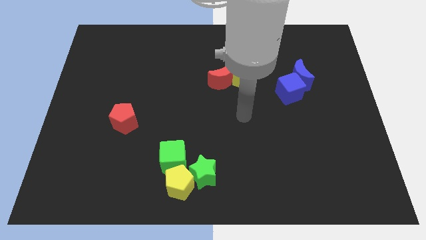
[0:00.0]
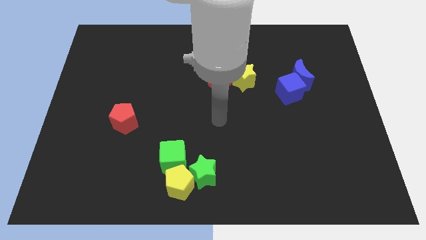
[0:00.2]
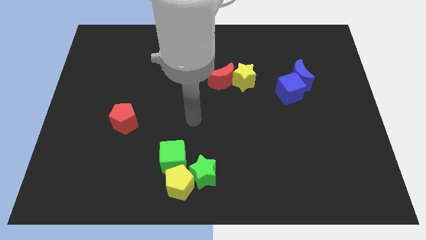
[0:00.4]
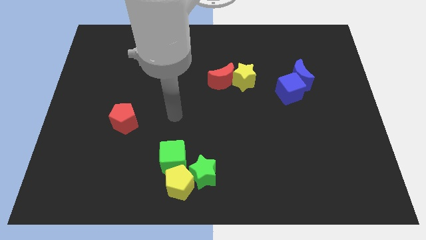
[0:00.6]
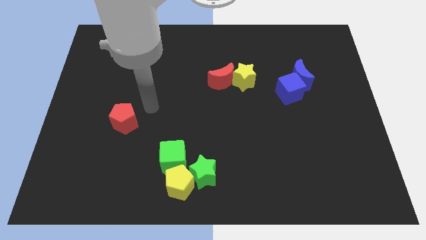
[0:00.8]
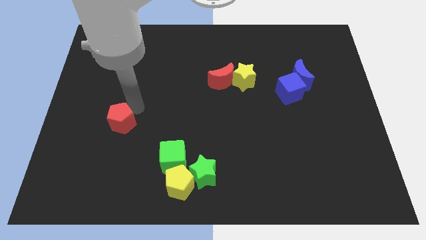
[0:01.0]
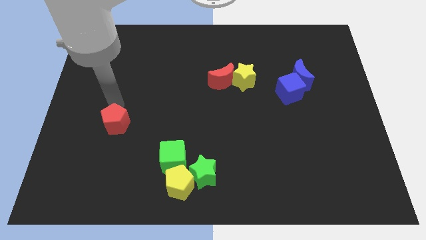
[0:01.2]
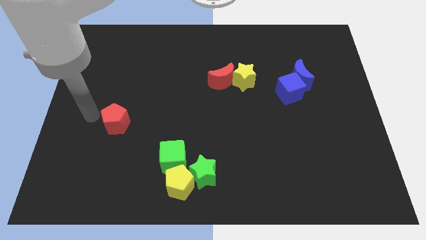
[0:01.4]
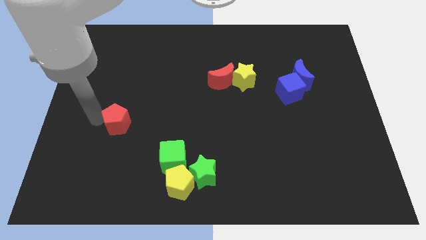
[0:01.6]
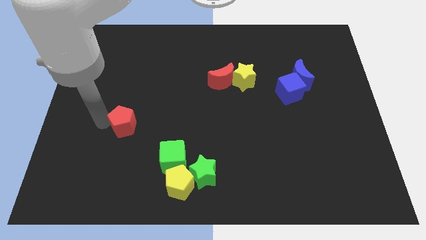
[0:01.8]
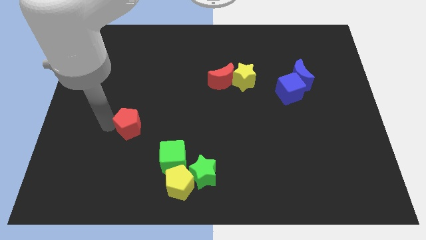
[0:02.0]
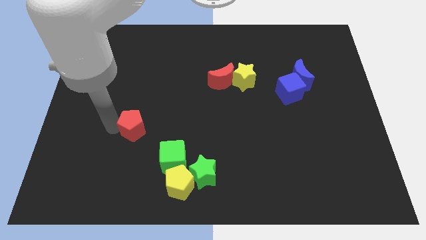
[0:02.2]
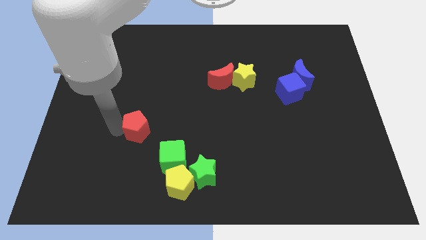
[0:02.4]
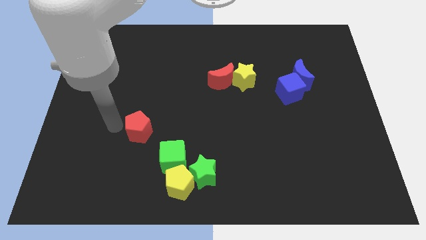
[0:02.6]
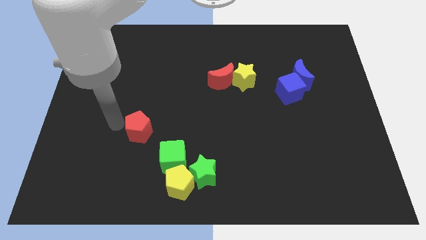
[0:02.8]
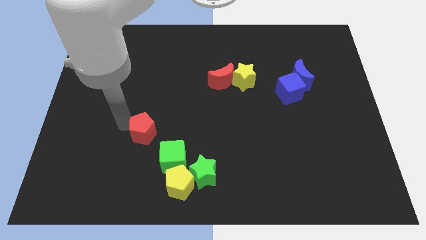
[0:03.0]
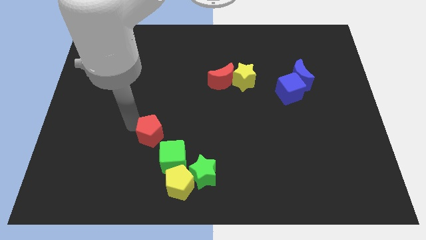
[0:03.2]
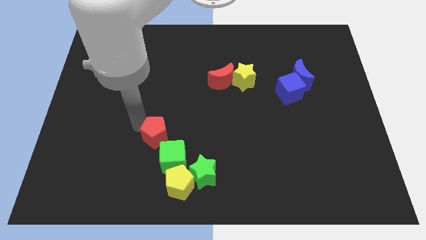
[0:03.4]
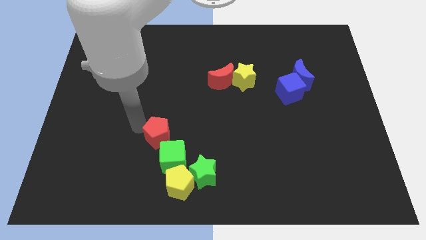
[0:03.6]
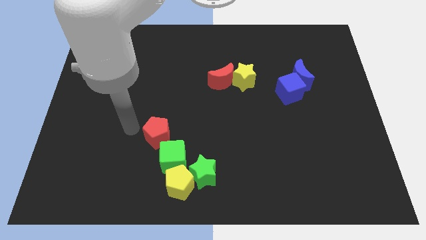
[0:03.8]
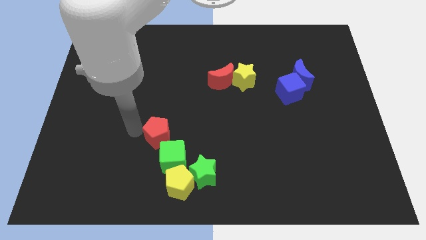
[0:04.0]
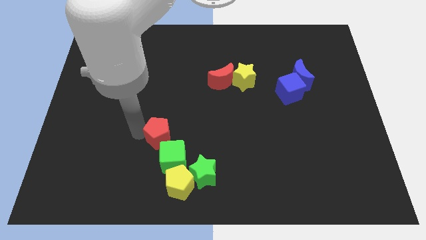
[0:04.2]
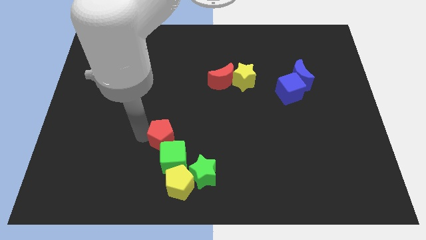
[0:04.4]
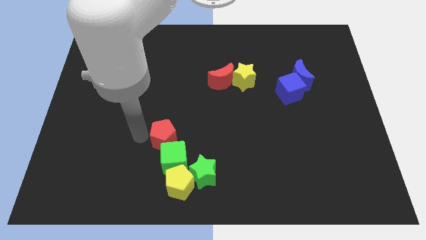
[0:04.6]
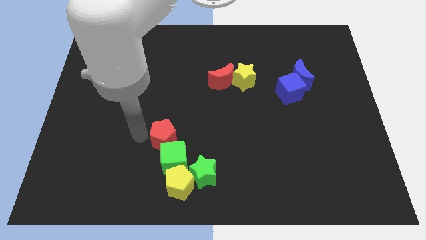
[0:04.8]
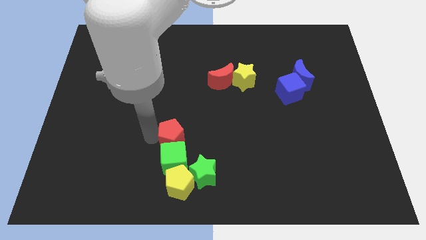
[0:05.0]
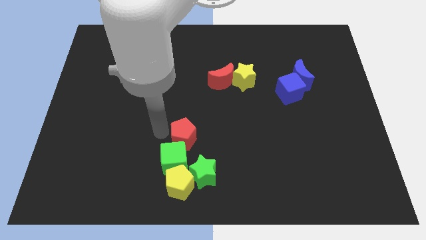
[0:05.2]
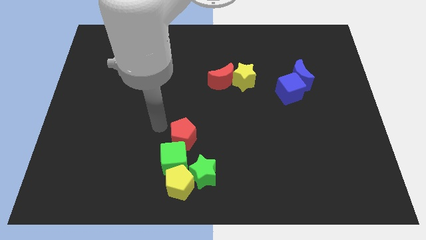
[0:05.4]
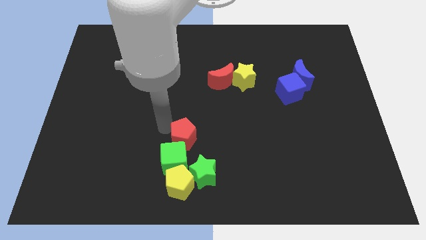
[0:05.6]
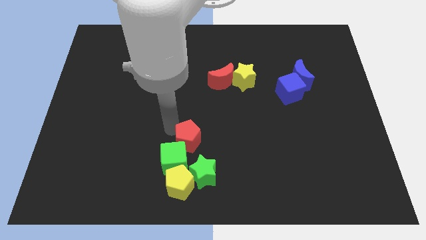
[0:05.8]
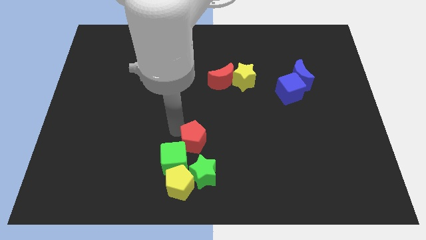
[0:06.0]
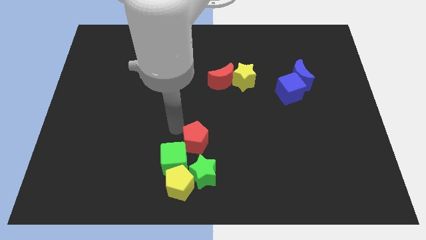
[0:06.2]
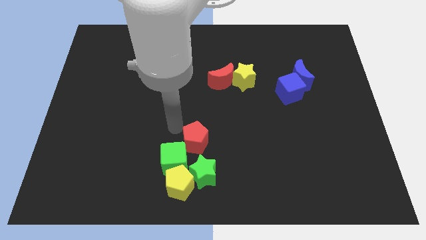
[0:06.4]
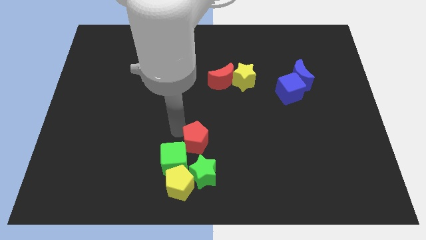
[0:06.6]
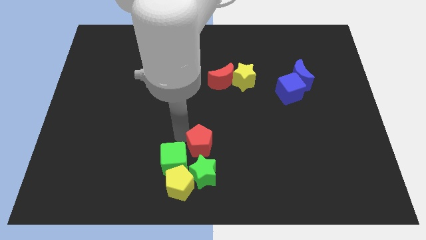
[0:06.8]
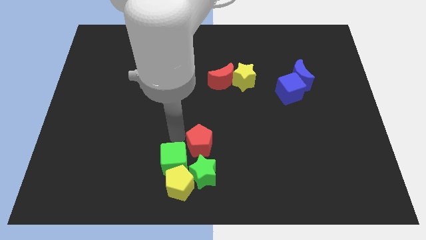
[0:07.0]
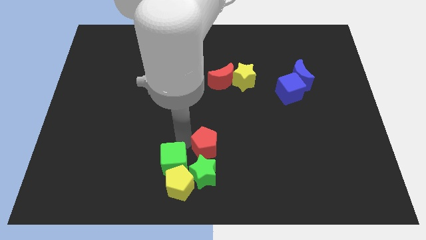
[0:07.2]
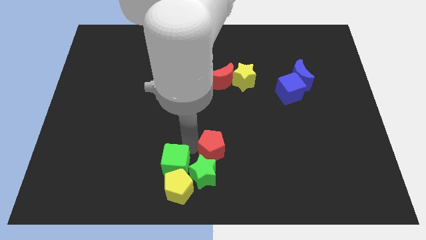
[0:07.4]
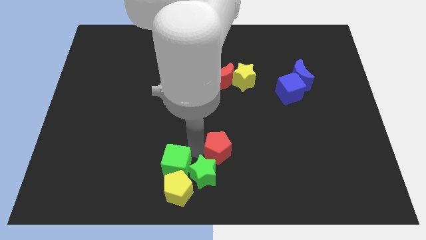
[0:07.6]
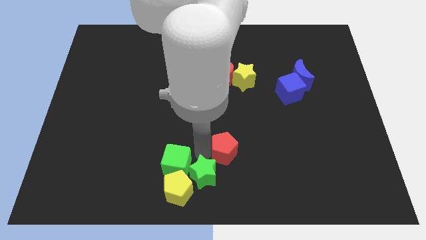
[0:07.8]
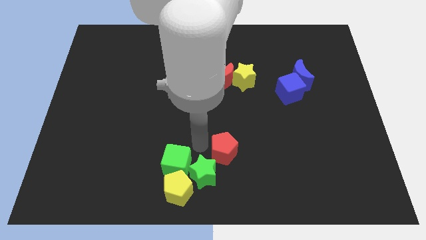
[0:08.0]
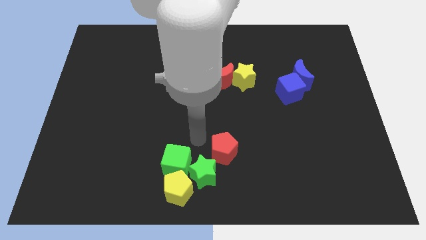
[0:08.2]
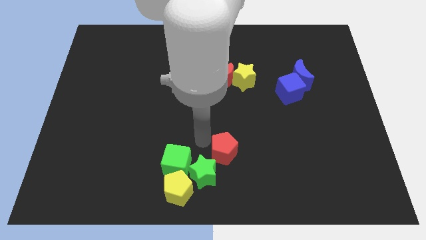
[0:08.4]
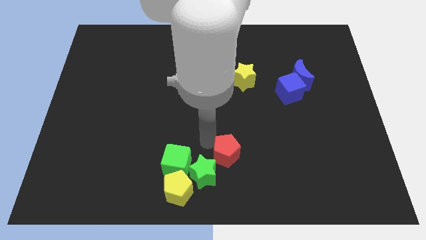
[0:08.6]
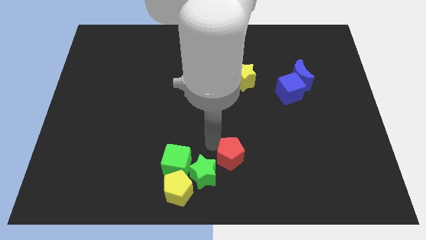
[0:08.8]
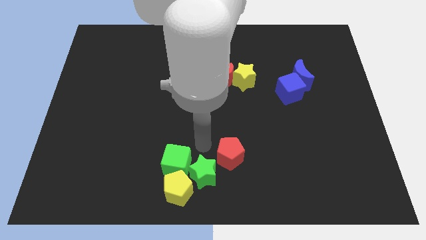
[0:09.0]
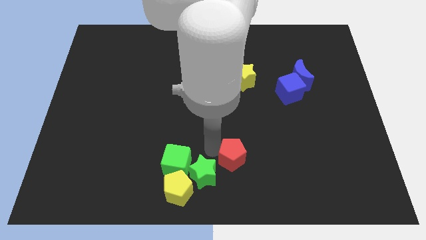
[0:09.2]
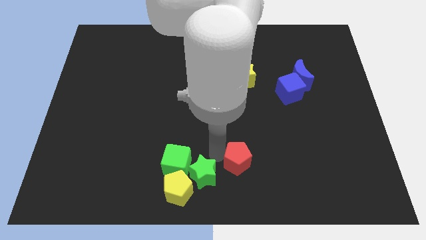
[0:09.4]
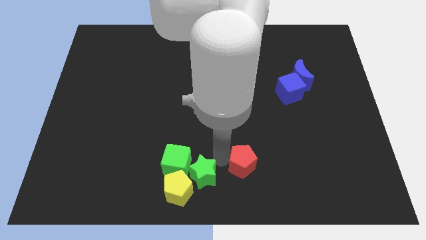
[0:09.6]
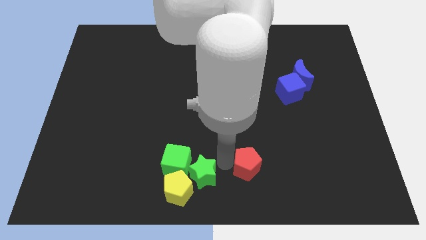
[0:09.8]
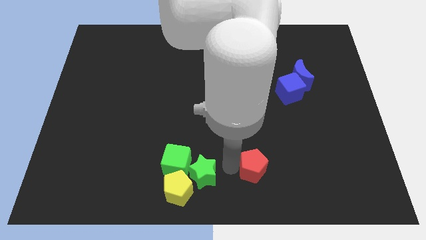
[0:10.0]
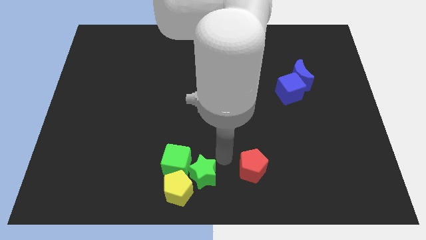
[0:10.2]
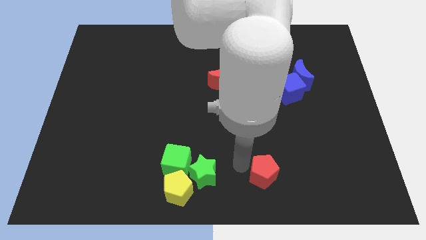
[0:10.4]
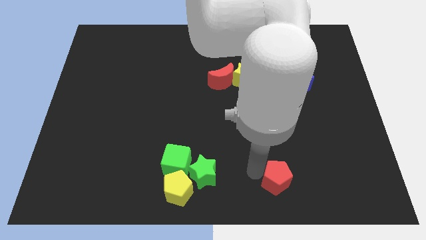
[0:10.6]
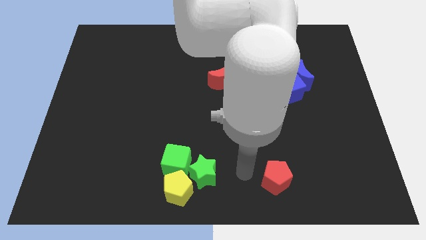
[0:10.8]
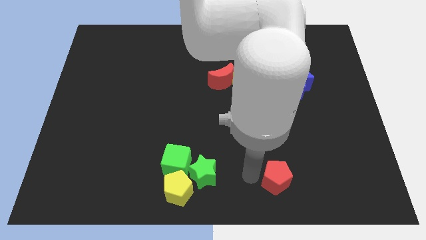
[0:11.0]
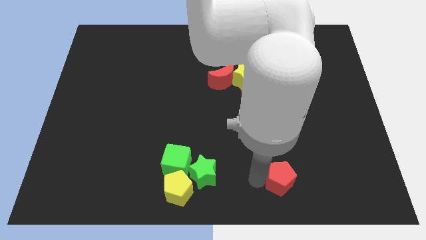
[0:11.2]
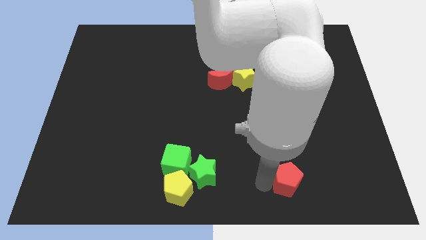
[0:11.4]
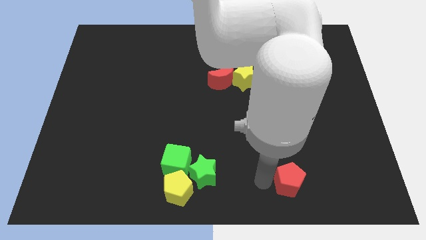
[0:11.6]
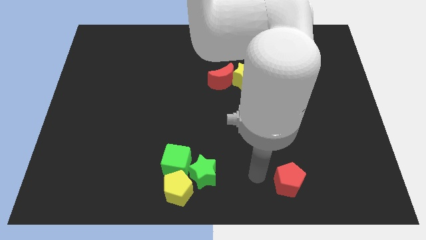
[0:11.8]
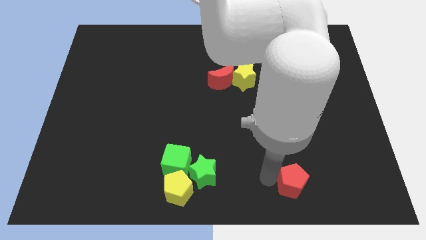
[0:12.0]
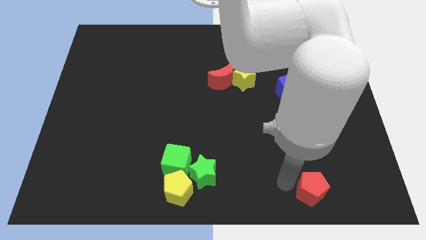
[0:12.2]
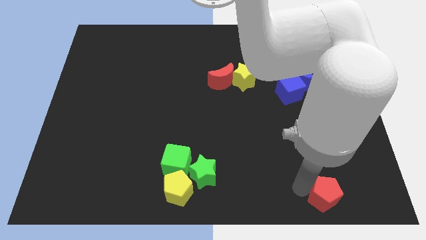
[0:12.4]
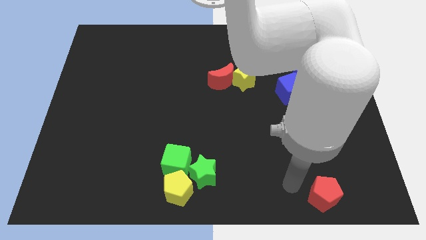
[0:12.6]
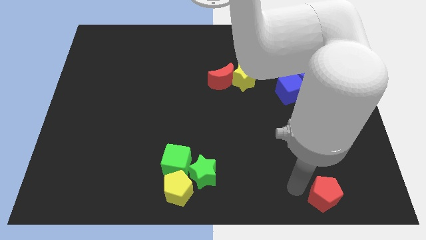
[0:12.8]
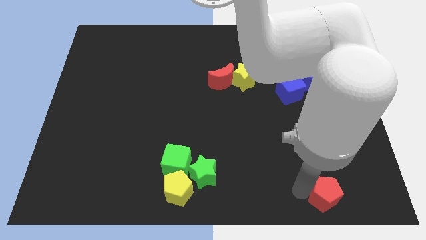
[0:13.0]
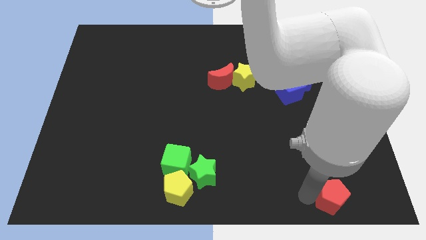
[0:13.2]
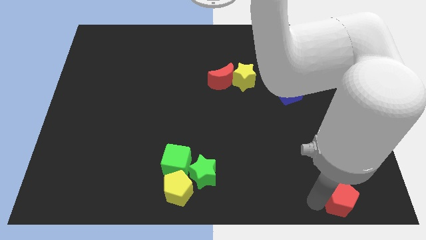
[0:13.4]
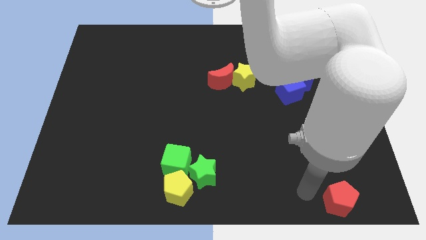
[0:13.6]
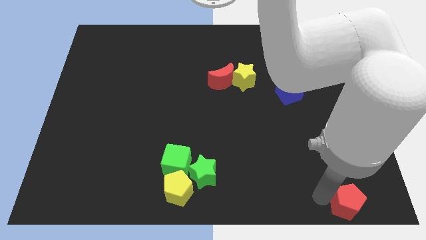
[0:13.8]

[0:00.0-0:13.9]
move the red pentagon to the lower right corner
